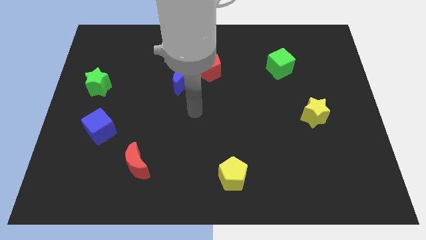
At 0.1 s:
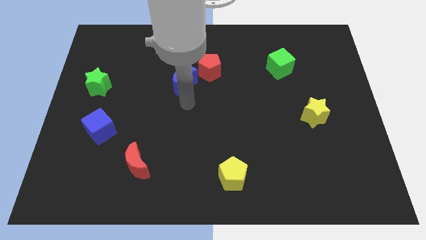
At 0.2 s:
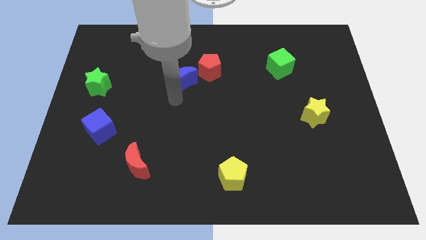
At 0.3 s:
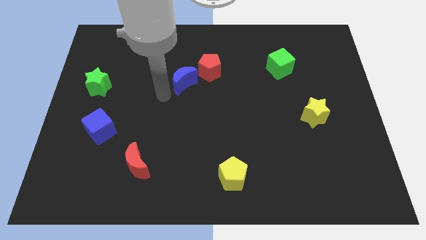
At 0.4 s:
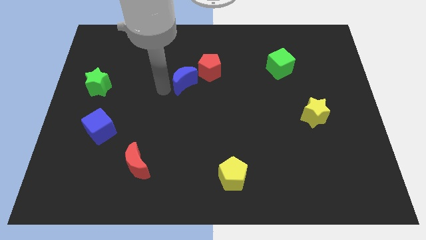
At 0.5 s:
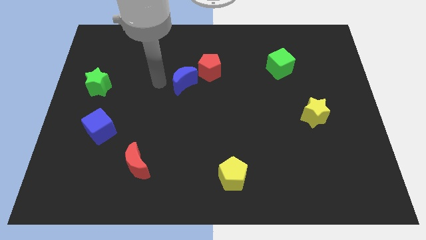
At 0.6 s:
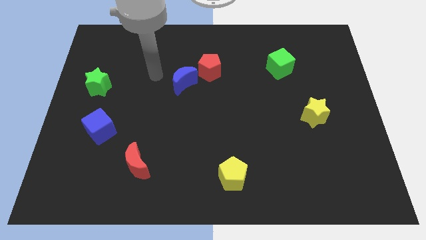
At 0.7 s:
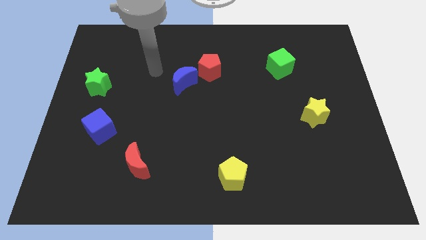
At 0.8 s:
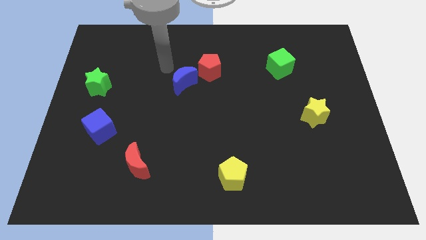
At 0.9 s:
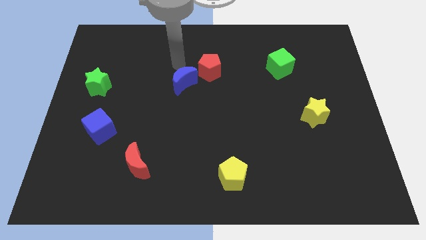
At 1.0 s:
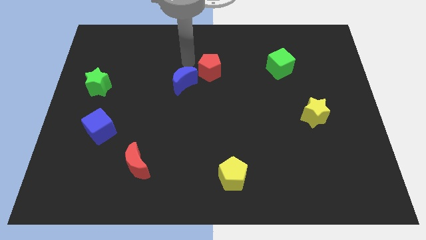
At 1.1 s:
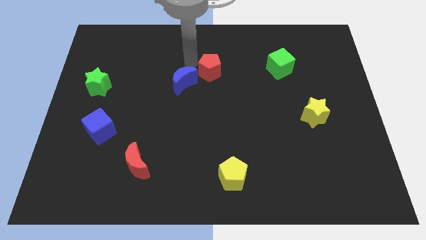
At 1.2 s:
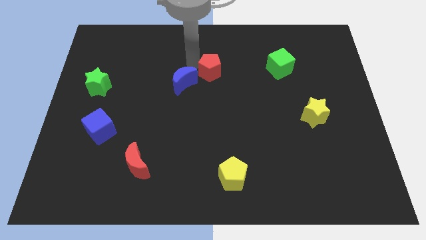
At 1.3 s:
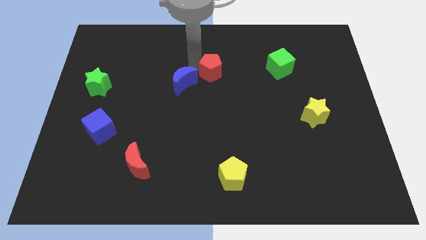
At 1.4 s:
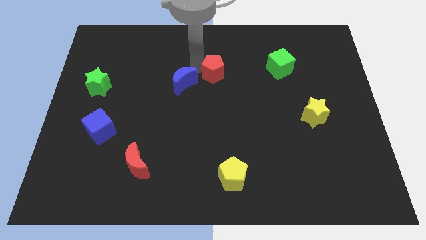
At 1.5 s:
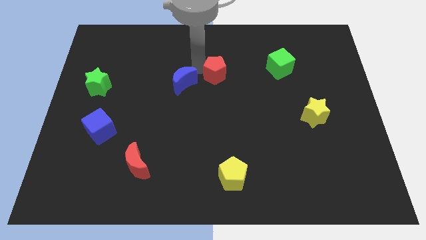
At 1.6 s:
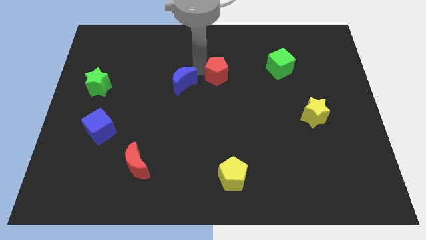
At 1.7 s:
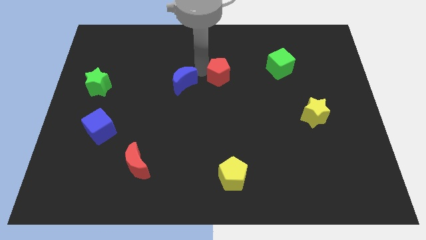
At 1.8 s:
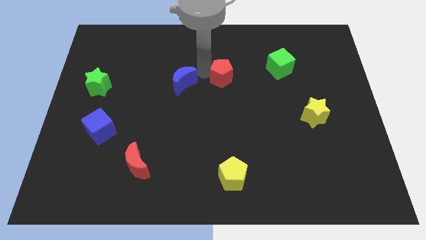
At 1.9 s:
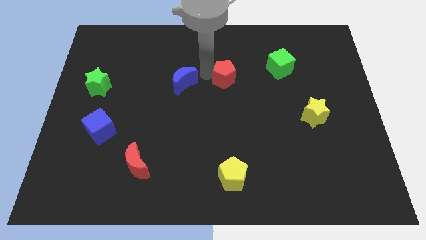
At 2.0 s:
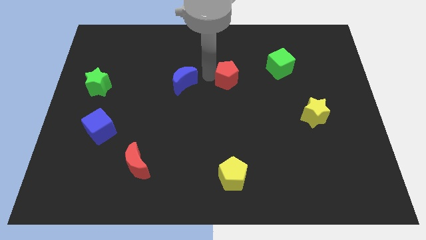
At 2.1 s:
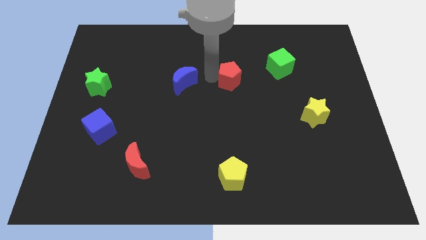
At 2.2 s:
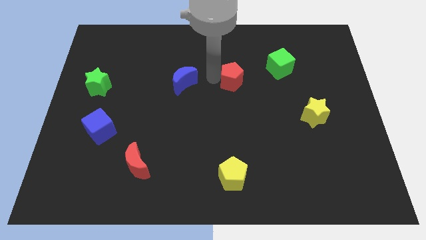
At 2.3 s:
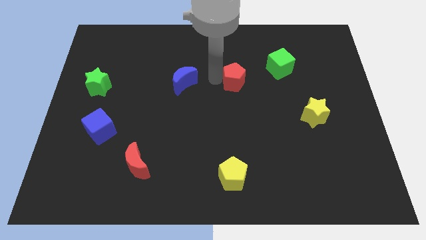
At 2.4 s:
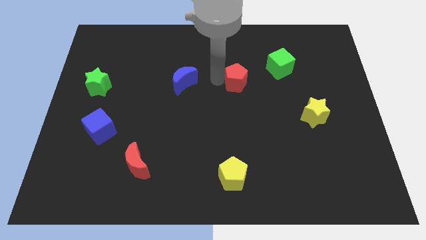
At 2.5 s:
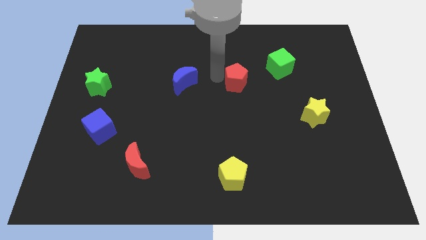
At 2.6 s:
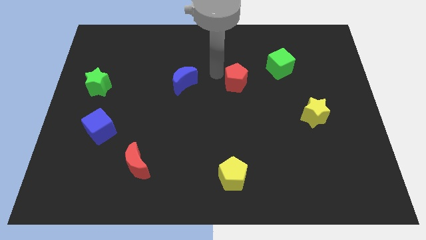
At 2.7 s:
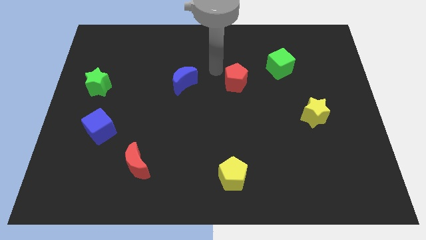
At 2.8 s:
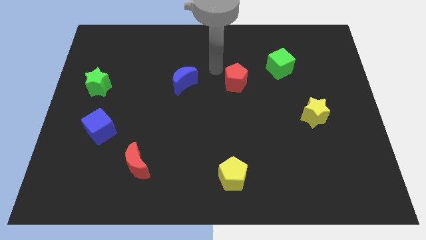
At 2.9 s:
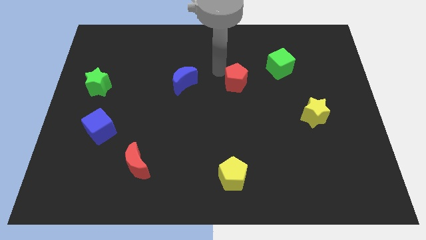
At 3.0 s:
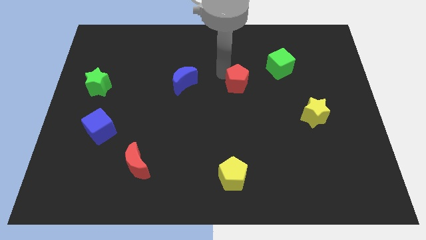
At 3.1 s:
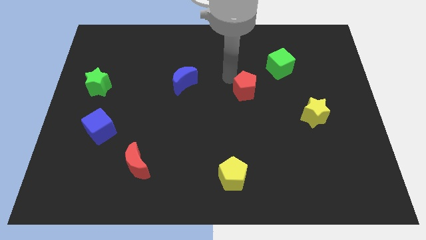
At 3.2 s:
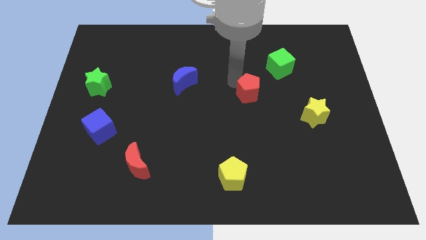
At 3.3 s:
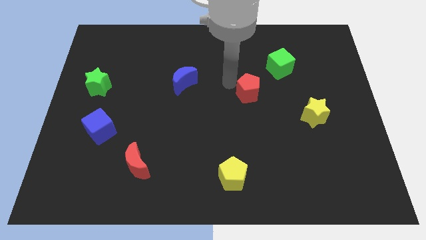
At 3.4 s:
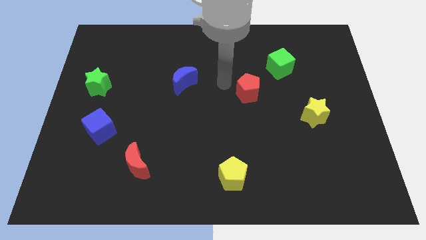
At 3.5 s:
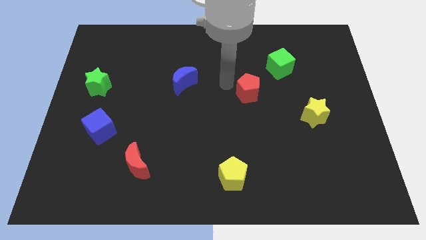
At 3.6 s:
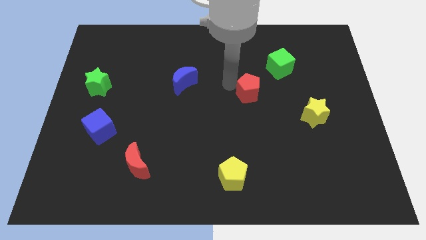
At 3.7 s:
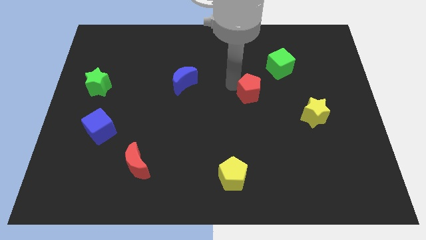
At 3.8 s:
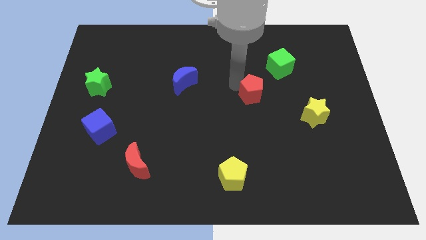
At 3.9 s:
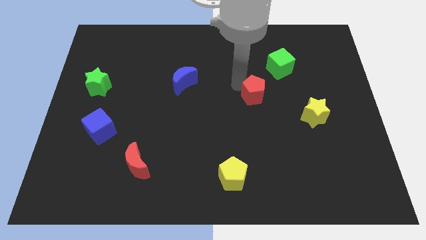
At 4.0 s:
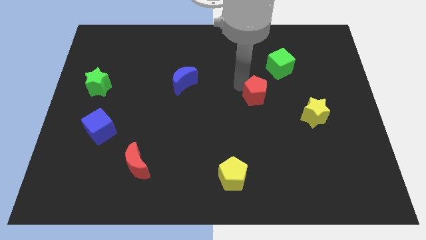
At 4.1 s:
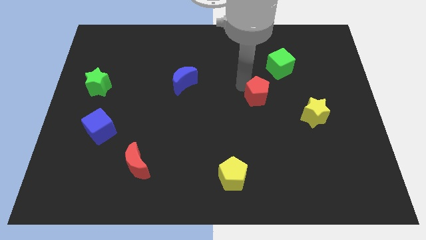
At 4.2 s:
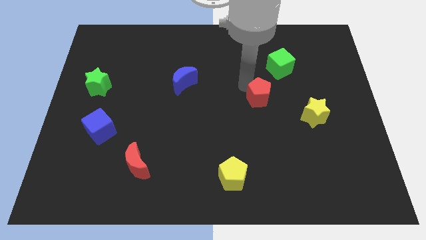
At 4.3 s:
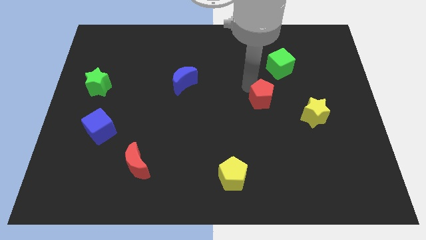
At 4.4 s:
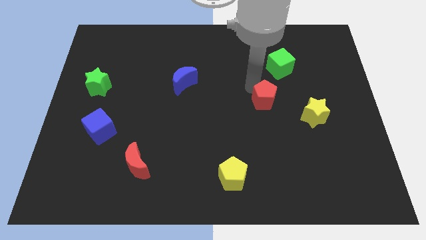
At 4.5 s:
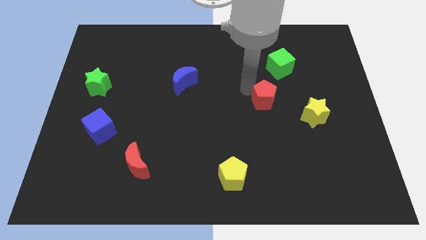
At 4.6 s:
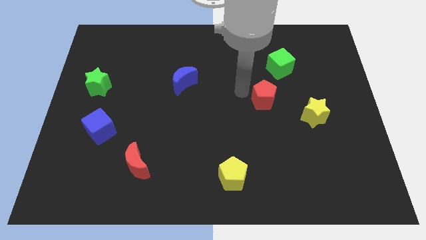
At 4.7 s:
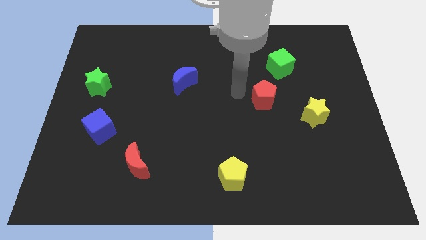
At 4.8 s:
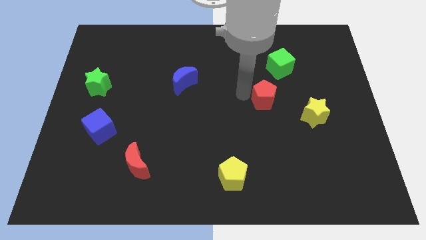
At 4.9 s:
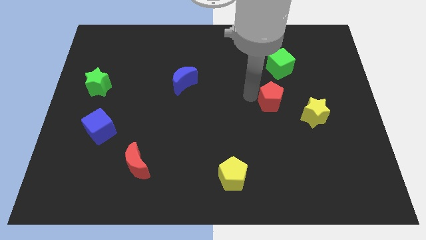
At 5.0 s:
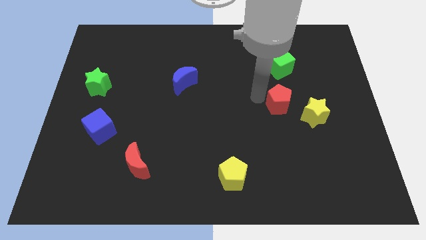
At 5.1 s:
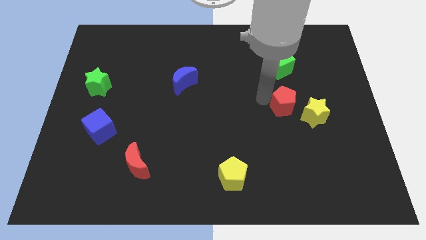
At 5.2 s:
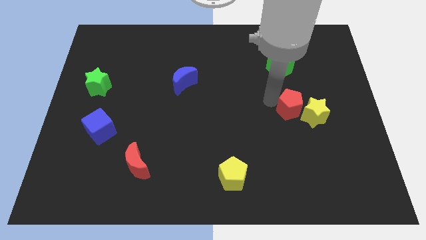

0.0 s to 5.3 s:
move the red pentagon close to the yellow star
